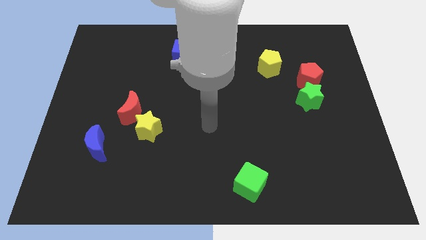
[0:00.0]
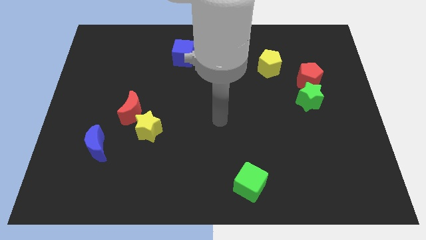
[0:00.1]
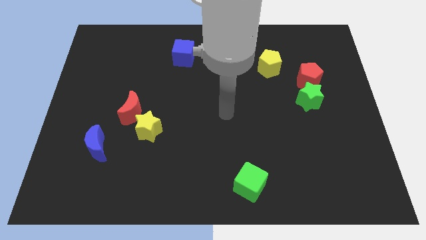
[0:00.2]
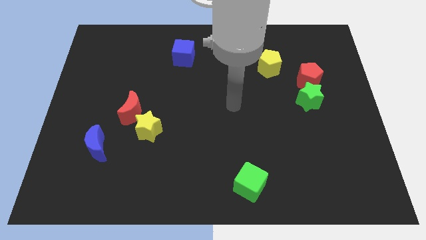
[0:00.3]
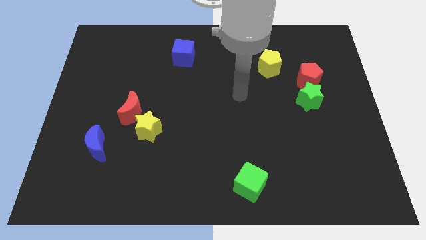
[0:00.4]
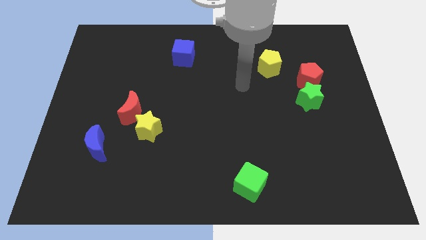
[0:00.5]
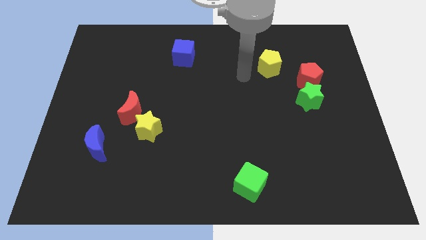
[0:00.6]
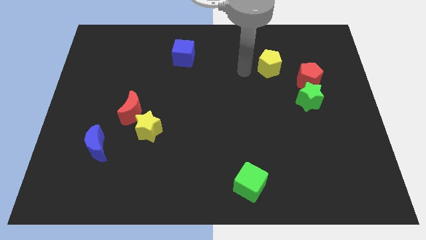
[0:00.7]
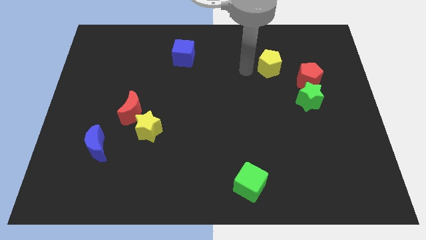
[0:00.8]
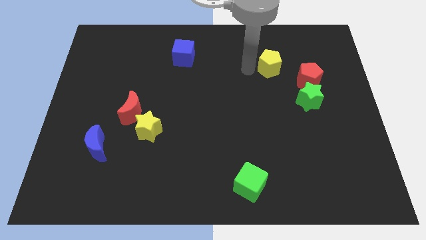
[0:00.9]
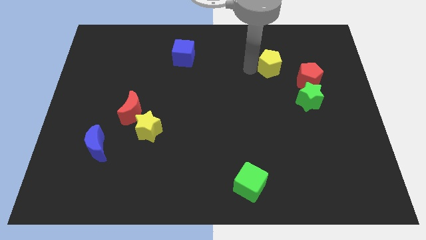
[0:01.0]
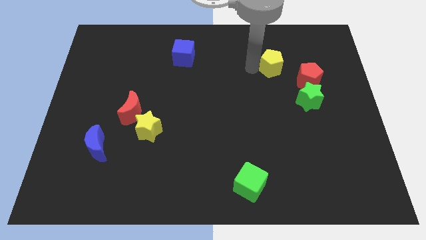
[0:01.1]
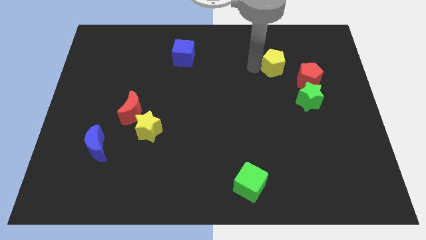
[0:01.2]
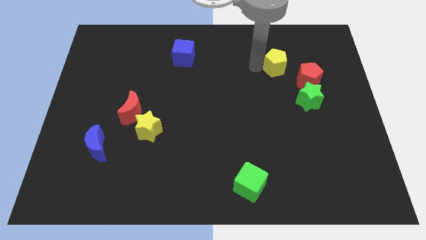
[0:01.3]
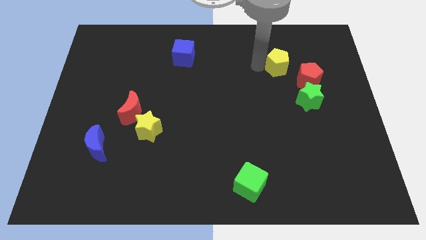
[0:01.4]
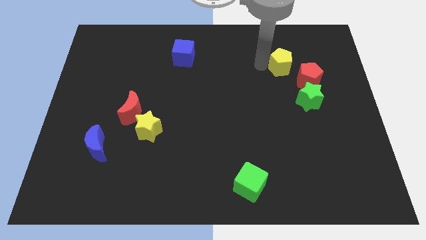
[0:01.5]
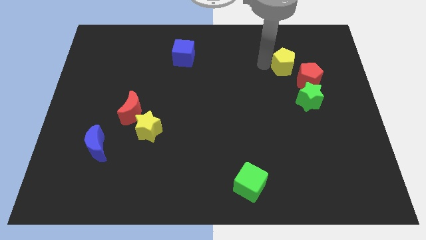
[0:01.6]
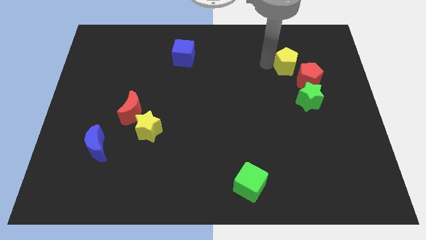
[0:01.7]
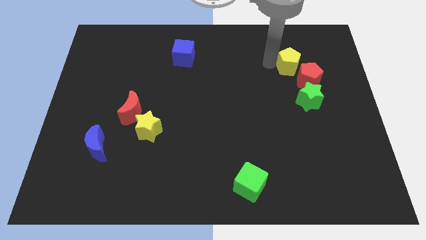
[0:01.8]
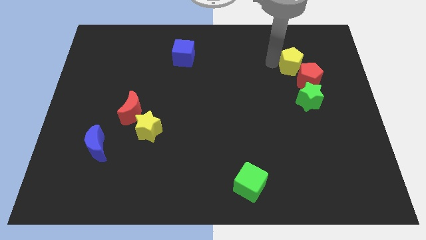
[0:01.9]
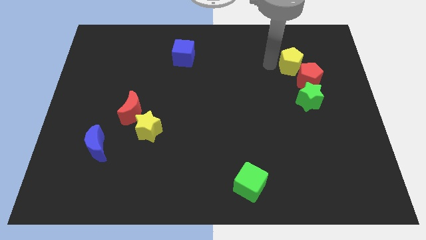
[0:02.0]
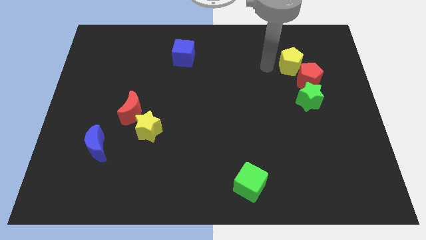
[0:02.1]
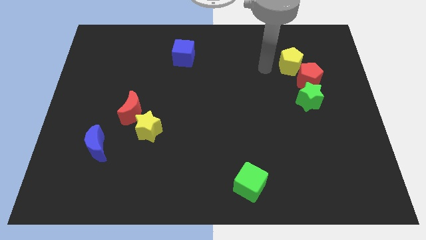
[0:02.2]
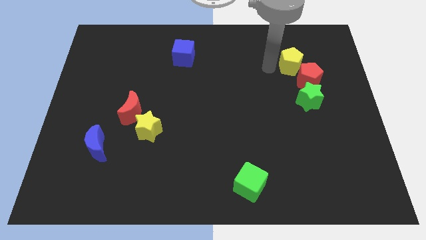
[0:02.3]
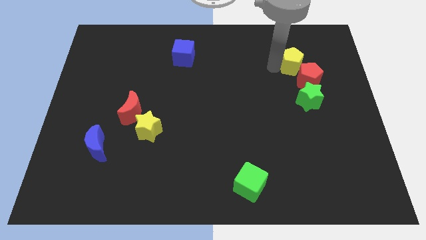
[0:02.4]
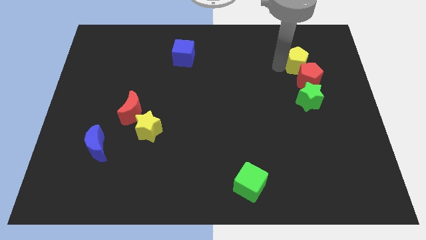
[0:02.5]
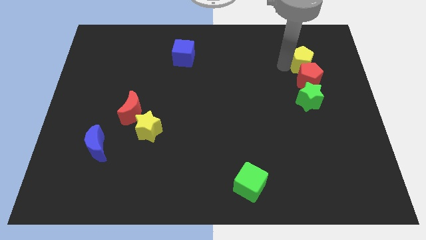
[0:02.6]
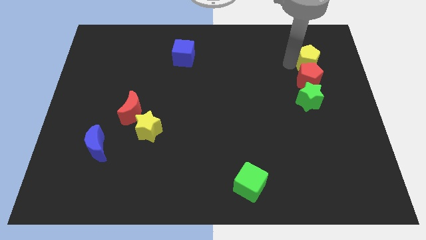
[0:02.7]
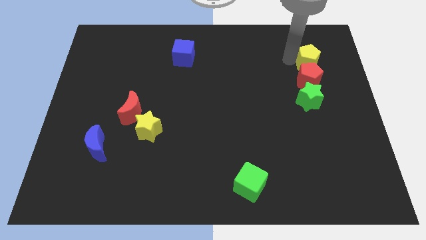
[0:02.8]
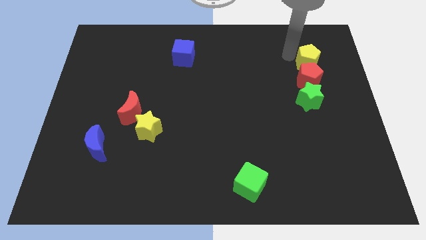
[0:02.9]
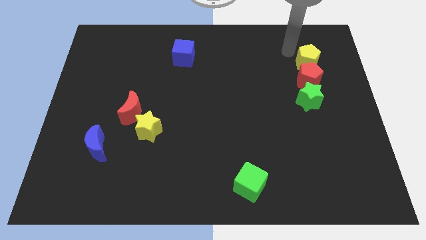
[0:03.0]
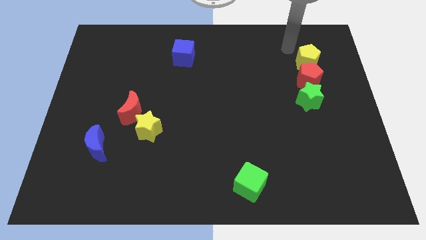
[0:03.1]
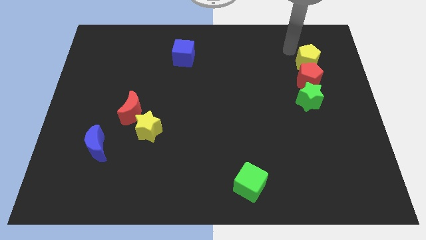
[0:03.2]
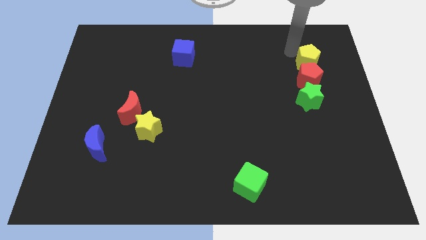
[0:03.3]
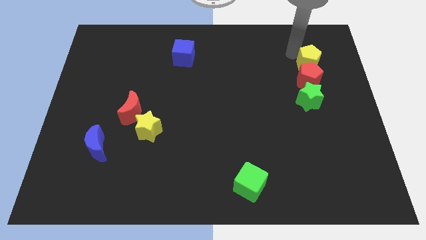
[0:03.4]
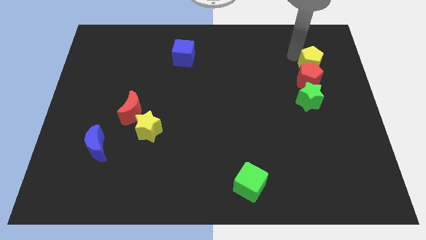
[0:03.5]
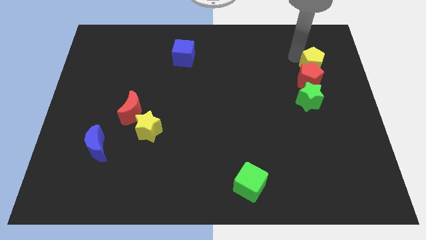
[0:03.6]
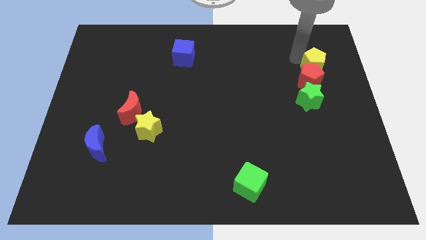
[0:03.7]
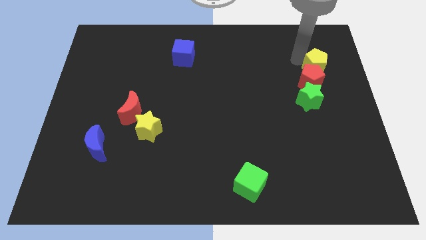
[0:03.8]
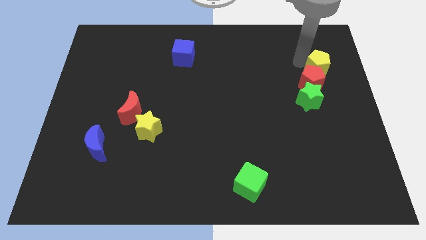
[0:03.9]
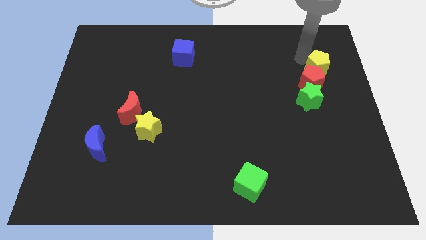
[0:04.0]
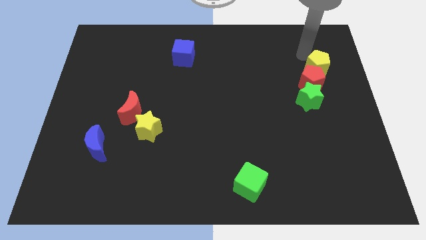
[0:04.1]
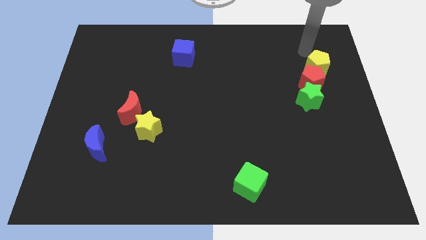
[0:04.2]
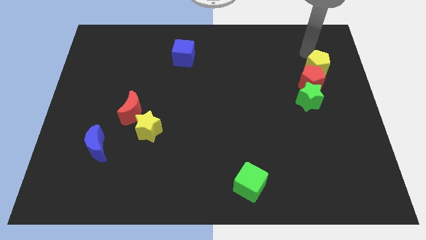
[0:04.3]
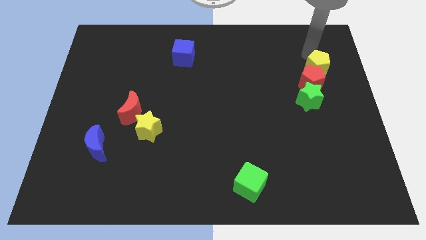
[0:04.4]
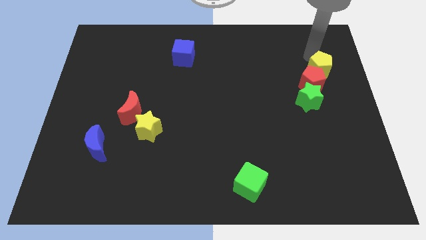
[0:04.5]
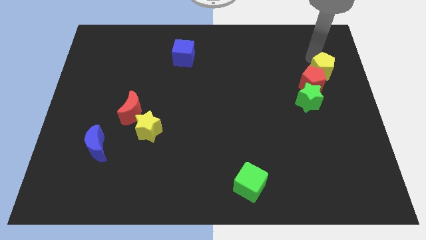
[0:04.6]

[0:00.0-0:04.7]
slightly move the yellow pentagon down and to the right

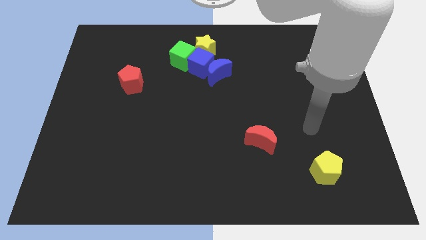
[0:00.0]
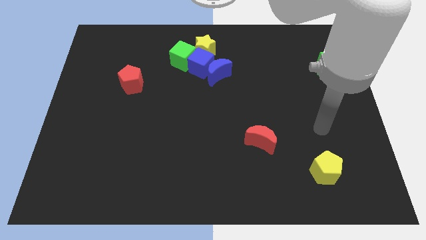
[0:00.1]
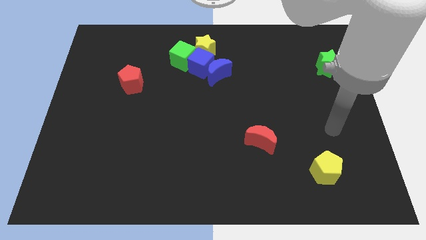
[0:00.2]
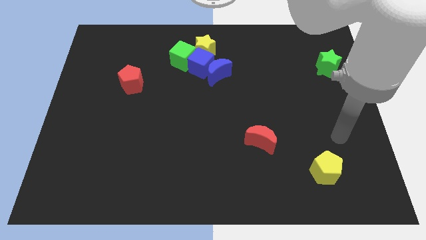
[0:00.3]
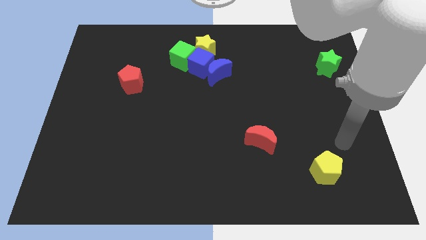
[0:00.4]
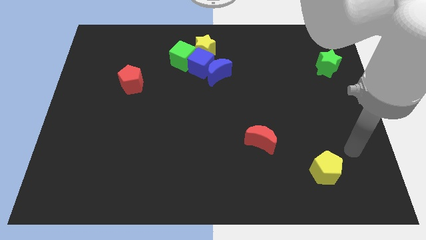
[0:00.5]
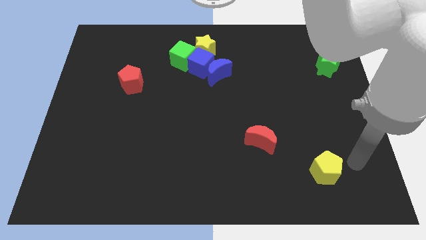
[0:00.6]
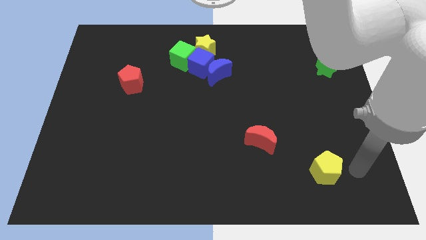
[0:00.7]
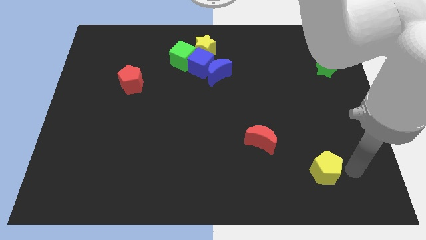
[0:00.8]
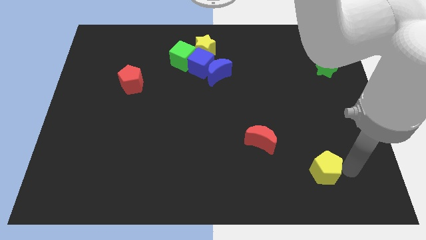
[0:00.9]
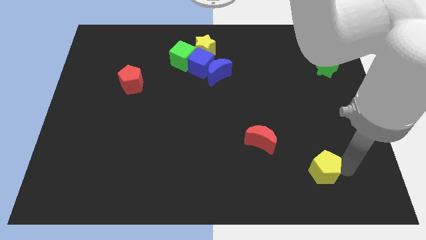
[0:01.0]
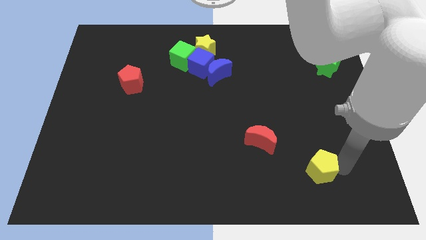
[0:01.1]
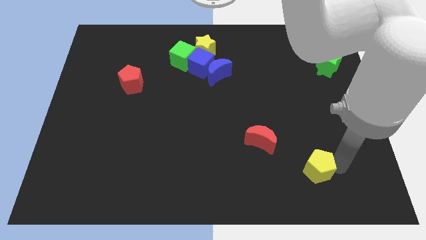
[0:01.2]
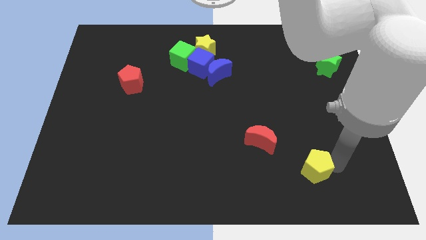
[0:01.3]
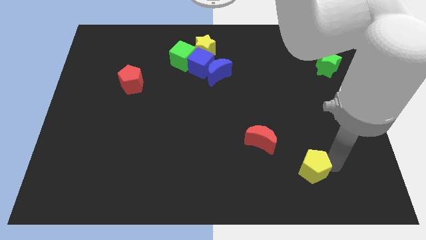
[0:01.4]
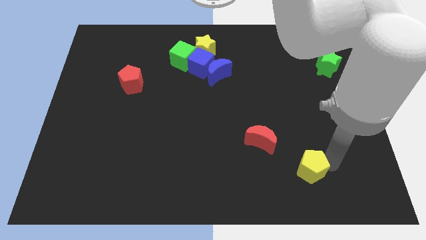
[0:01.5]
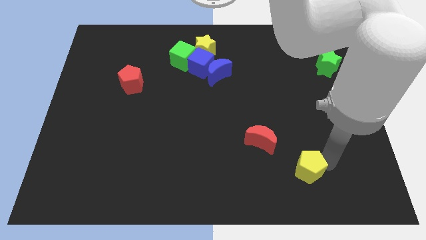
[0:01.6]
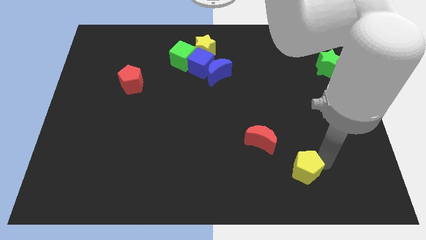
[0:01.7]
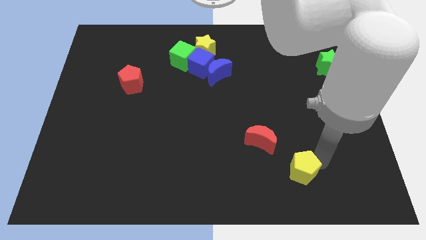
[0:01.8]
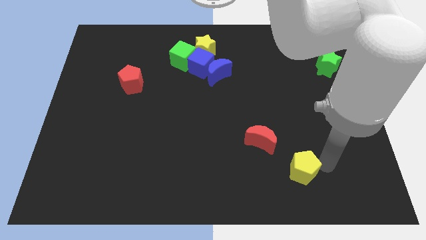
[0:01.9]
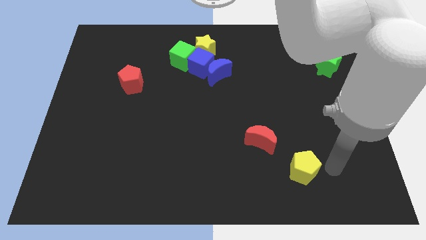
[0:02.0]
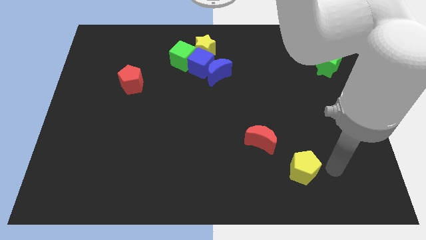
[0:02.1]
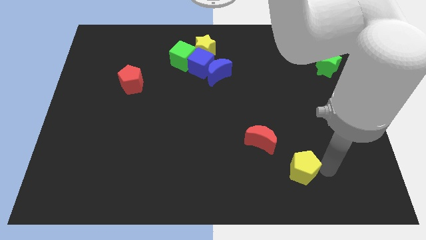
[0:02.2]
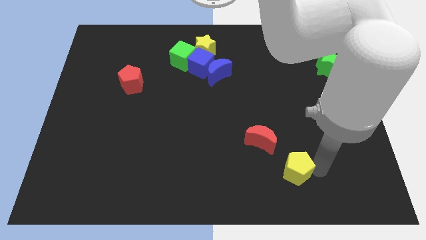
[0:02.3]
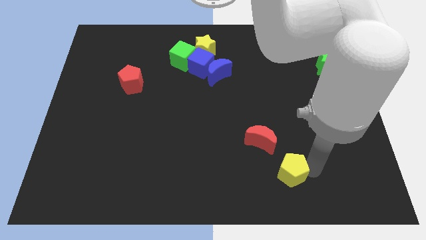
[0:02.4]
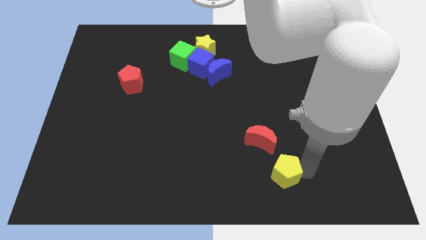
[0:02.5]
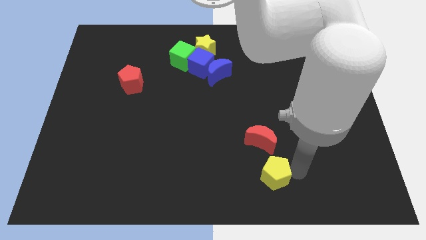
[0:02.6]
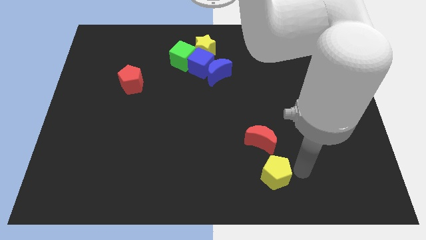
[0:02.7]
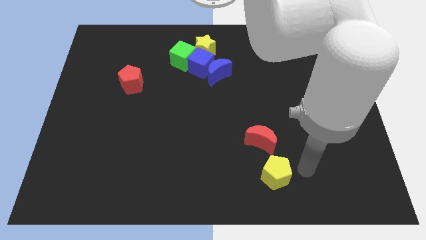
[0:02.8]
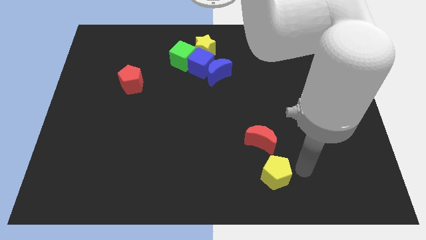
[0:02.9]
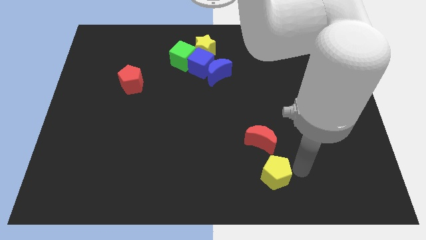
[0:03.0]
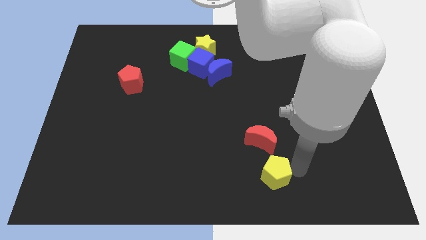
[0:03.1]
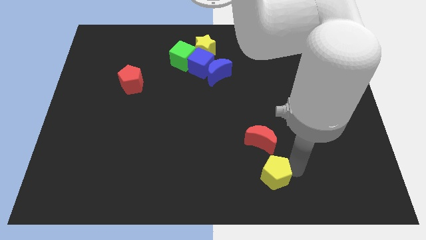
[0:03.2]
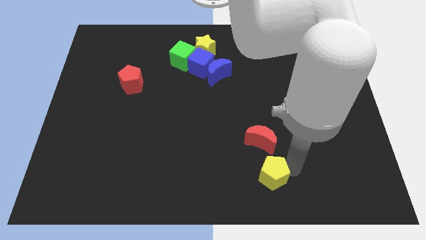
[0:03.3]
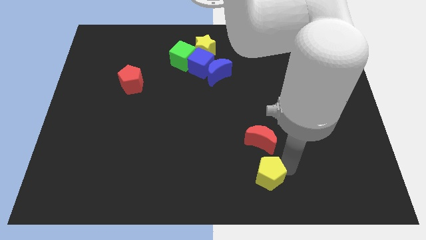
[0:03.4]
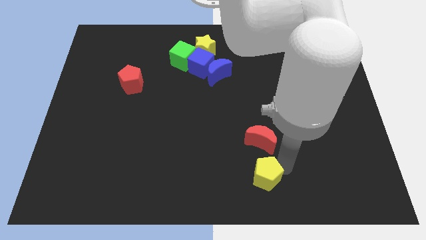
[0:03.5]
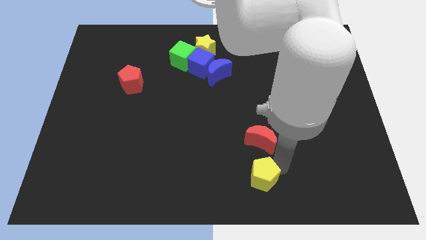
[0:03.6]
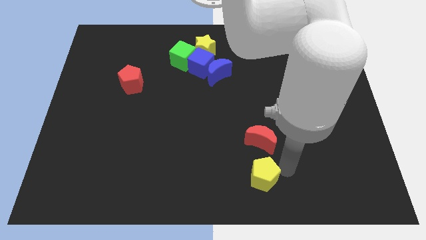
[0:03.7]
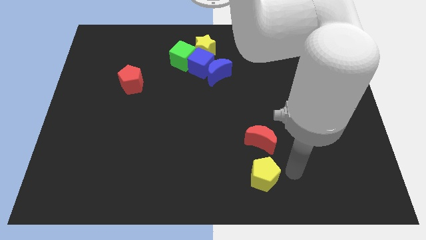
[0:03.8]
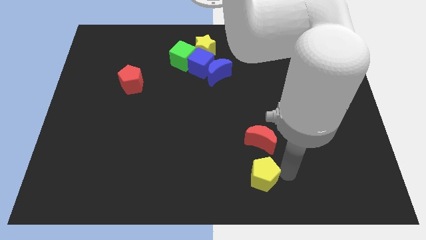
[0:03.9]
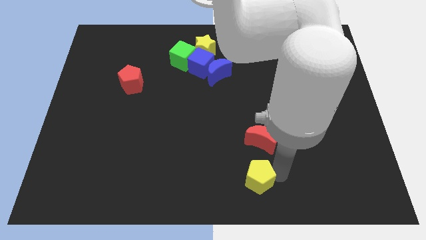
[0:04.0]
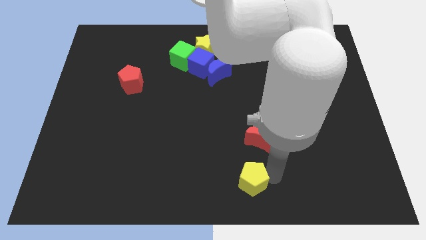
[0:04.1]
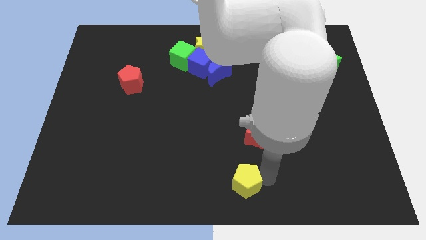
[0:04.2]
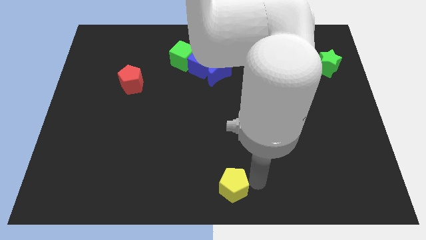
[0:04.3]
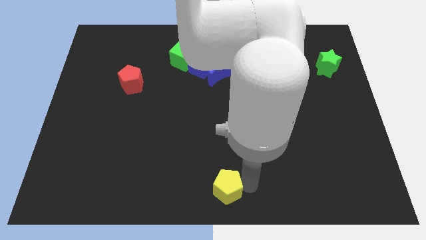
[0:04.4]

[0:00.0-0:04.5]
move the yellow pentagon to the left
